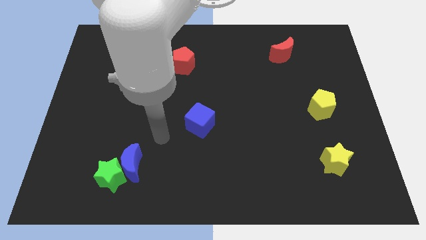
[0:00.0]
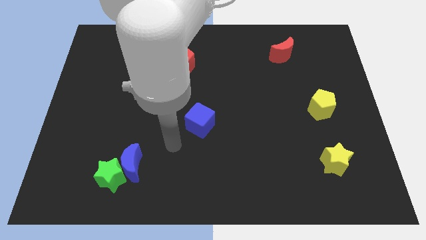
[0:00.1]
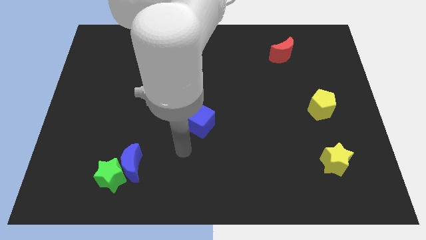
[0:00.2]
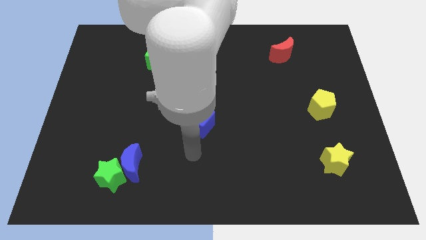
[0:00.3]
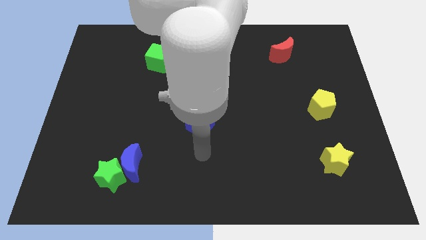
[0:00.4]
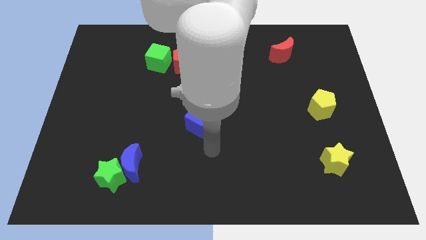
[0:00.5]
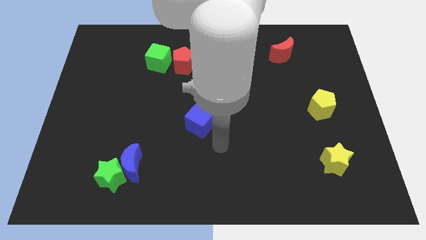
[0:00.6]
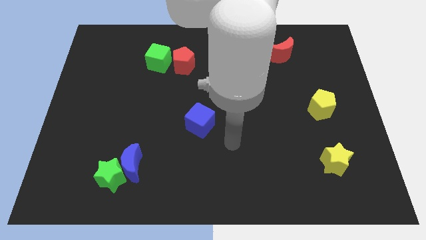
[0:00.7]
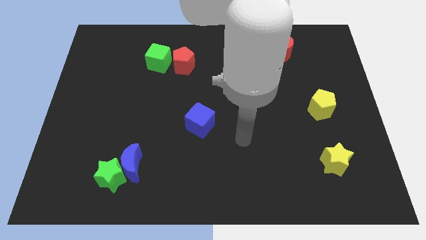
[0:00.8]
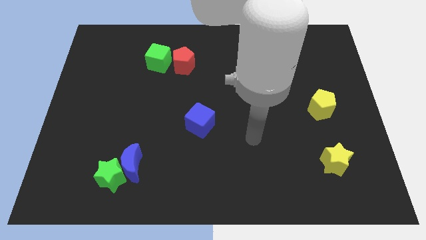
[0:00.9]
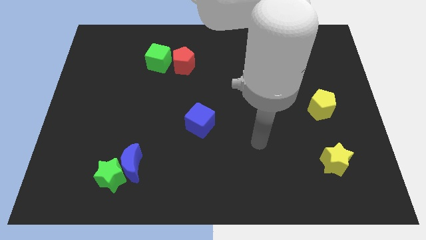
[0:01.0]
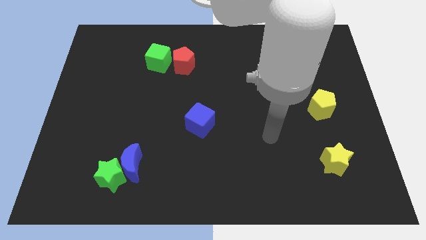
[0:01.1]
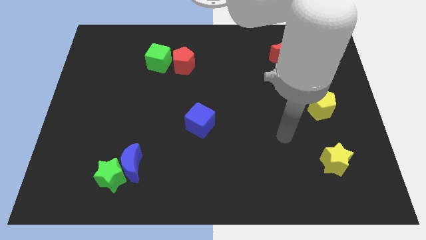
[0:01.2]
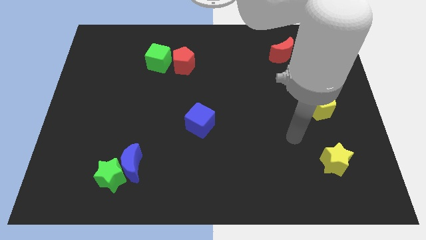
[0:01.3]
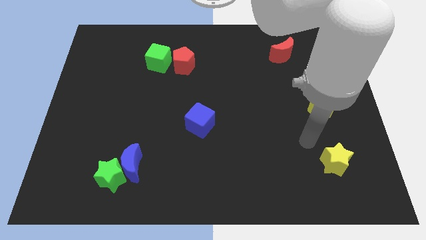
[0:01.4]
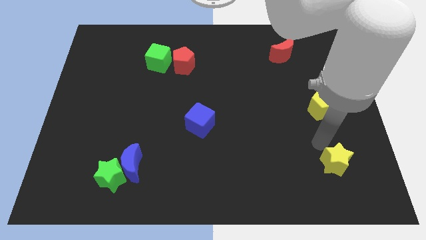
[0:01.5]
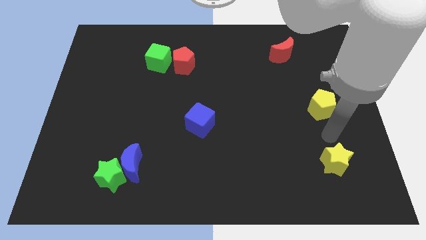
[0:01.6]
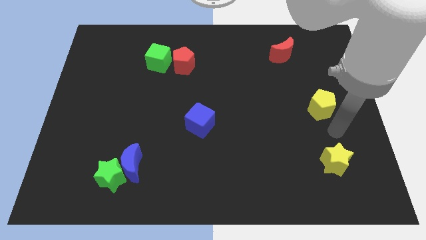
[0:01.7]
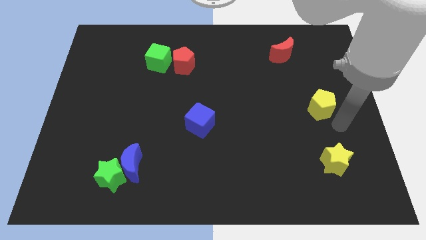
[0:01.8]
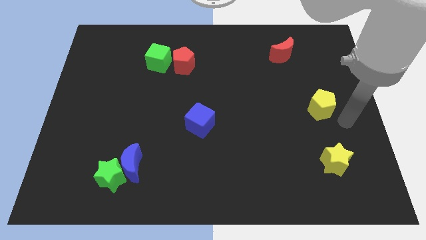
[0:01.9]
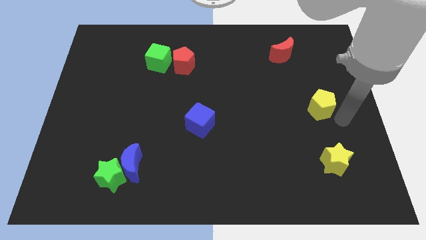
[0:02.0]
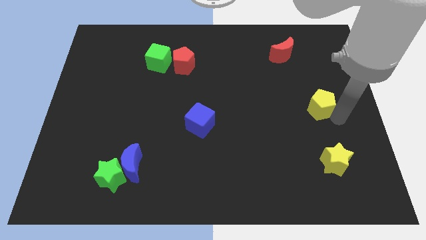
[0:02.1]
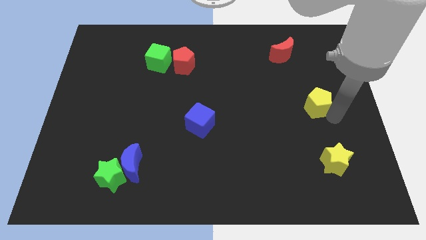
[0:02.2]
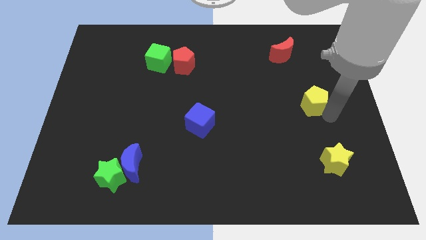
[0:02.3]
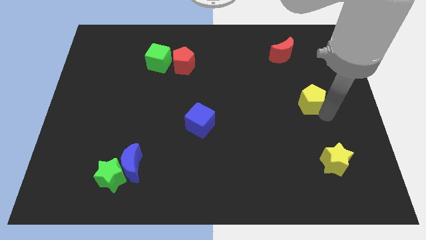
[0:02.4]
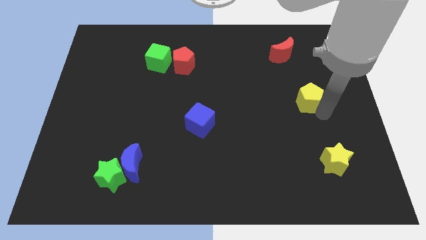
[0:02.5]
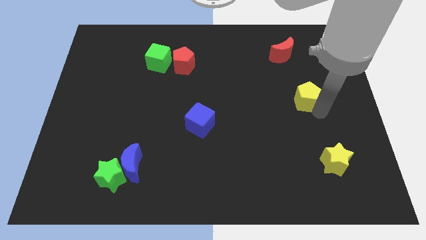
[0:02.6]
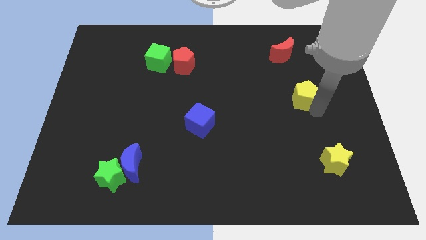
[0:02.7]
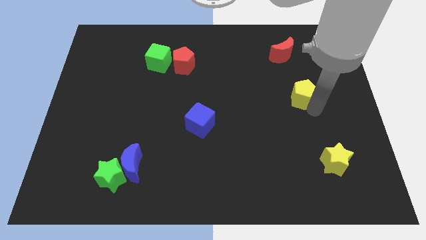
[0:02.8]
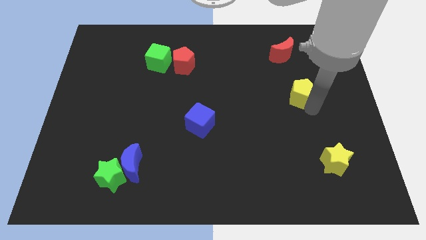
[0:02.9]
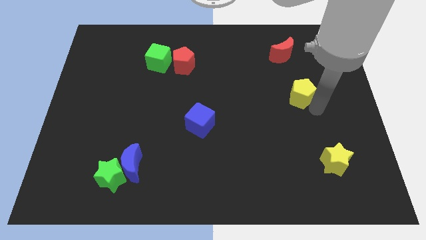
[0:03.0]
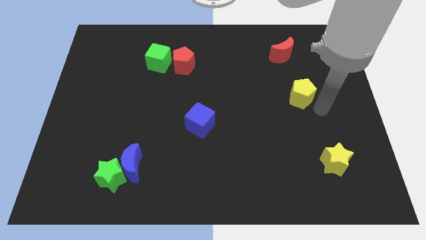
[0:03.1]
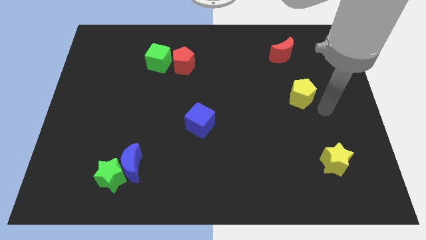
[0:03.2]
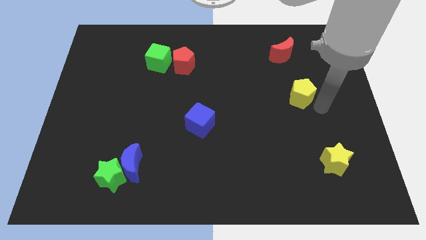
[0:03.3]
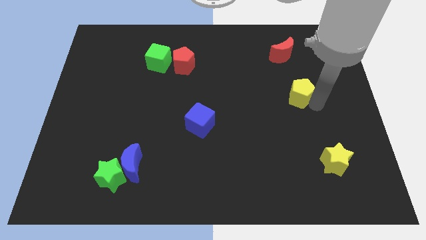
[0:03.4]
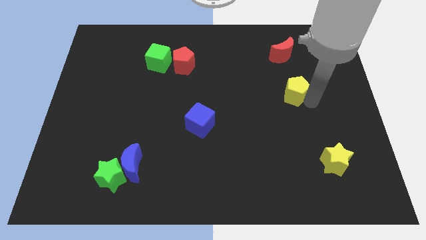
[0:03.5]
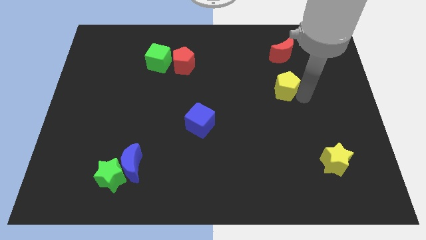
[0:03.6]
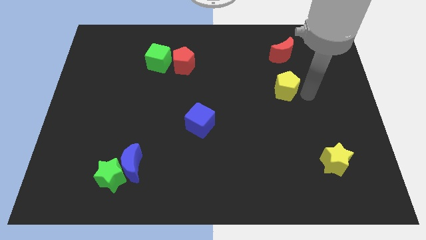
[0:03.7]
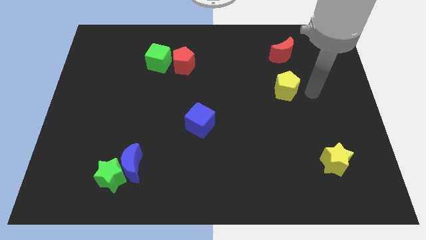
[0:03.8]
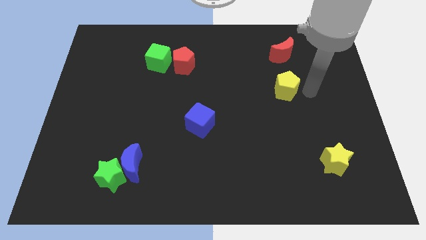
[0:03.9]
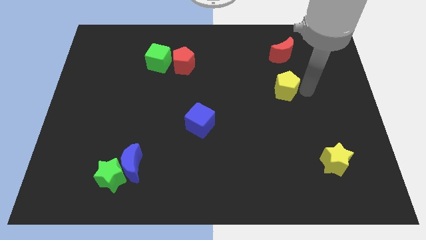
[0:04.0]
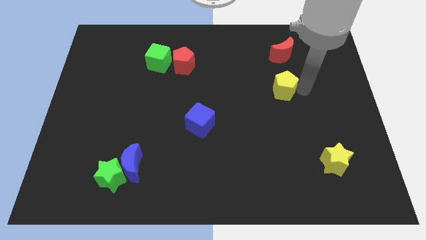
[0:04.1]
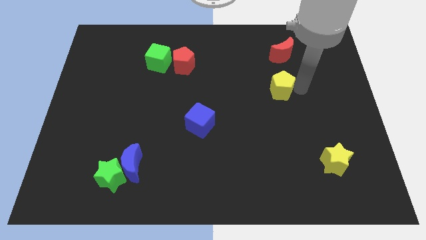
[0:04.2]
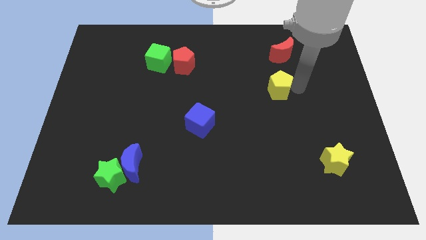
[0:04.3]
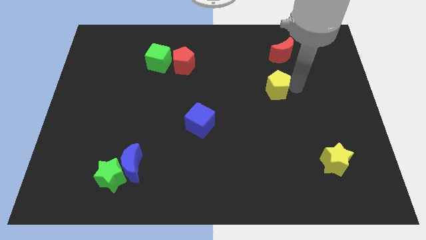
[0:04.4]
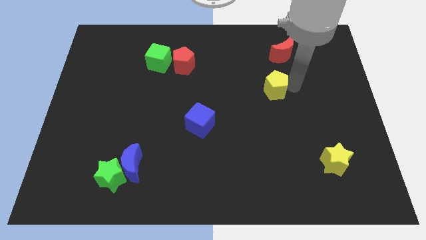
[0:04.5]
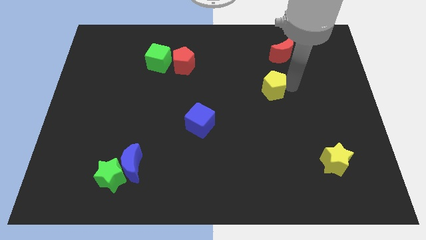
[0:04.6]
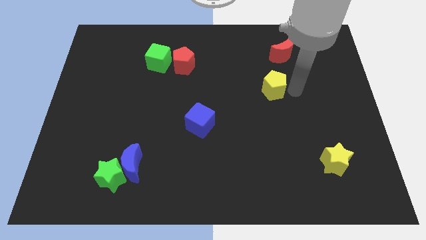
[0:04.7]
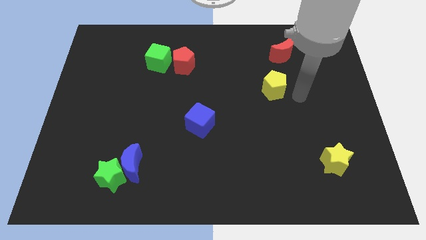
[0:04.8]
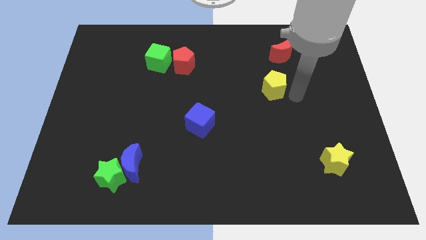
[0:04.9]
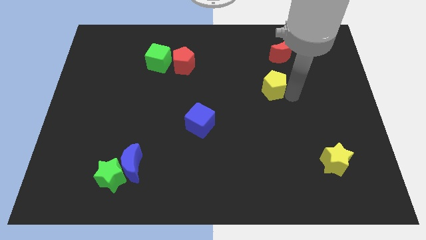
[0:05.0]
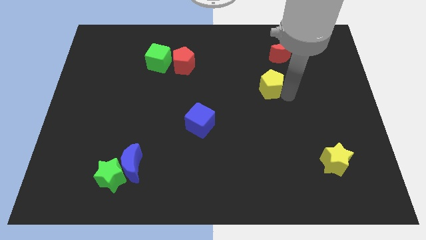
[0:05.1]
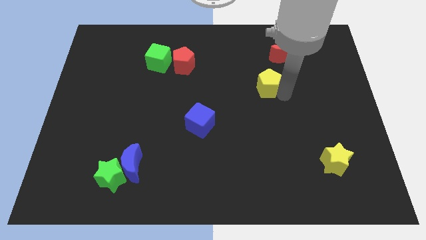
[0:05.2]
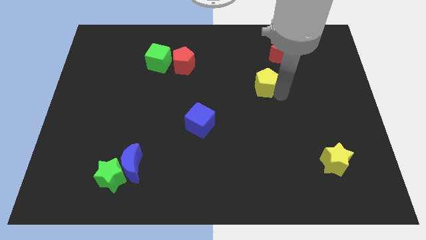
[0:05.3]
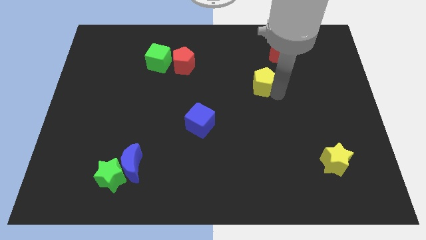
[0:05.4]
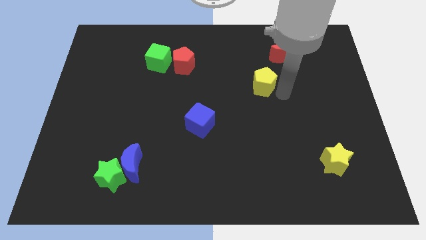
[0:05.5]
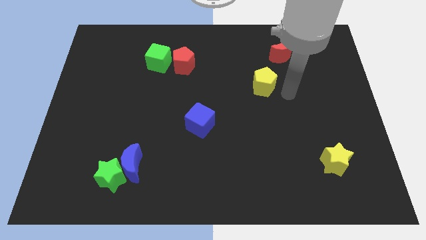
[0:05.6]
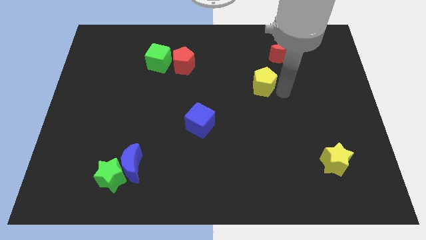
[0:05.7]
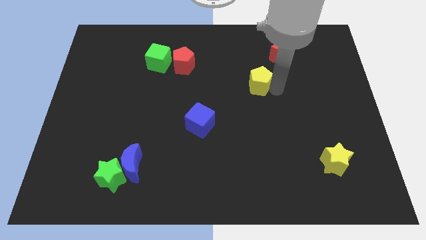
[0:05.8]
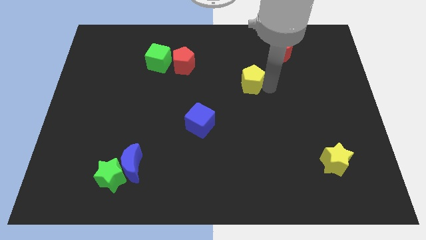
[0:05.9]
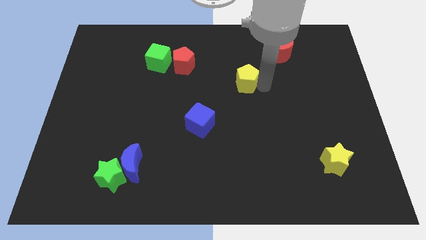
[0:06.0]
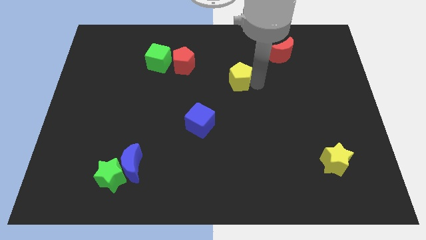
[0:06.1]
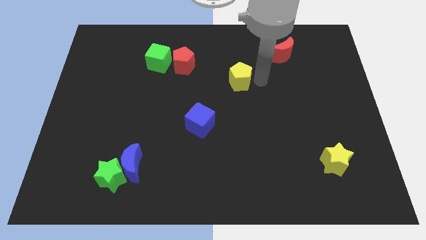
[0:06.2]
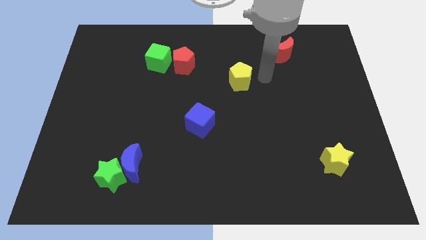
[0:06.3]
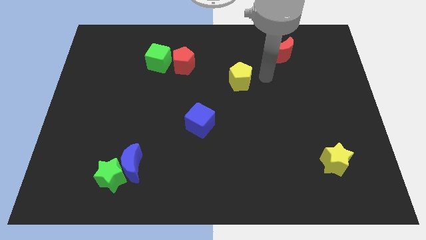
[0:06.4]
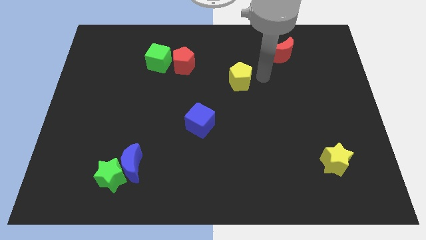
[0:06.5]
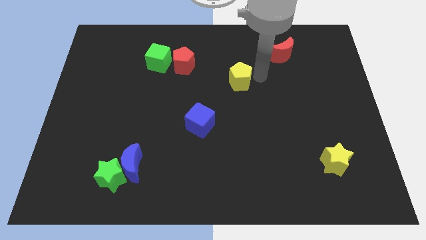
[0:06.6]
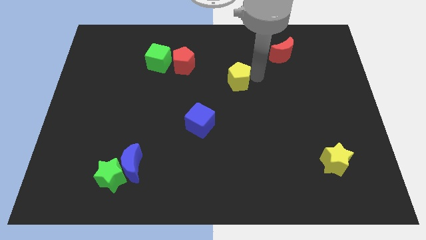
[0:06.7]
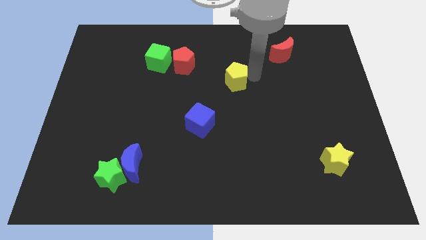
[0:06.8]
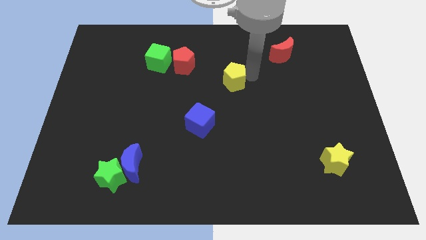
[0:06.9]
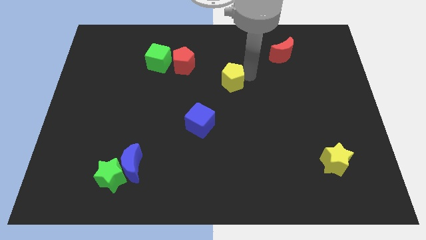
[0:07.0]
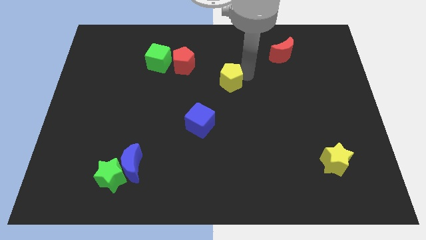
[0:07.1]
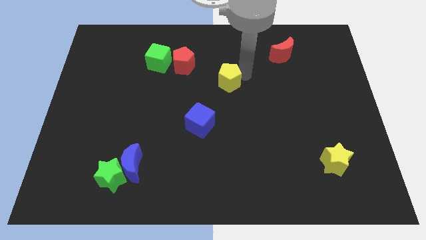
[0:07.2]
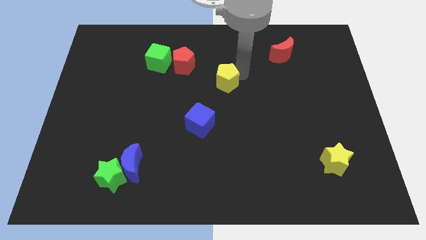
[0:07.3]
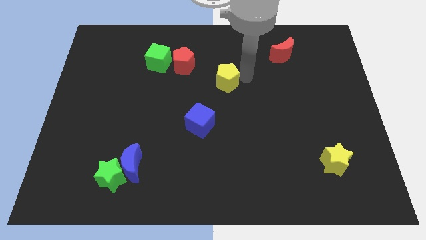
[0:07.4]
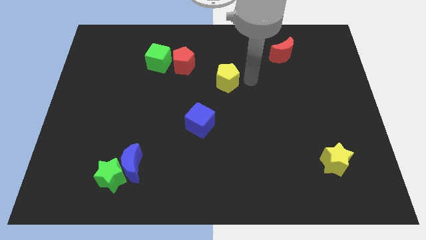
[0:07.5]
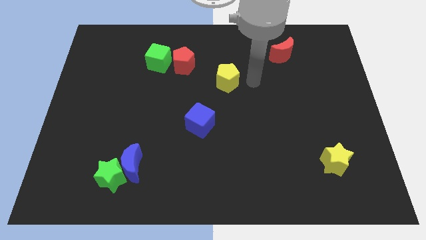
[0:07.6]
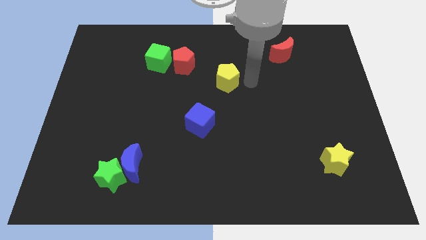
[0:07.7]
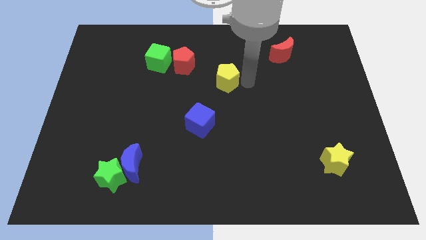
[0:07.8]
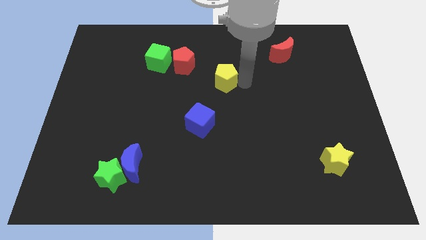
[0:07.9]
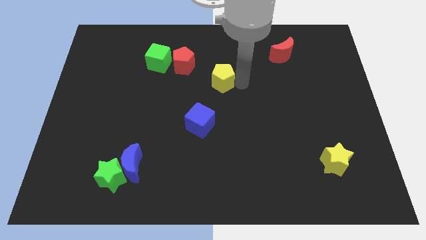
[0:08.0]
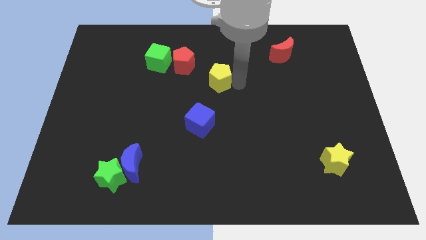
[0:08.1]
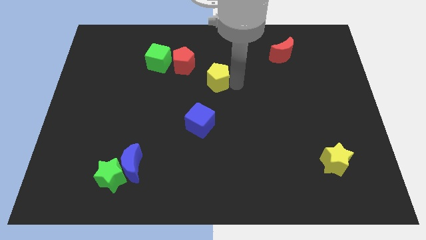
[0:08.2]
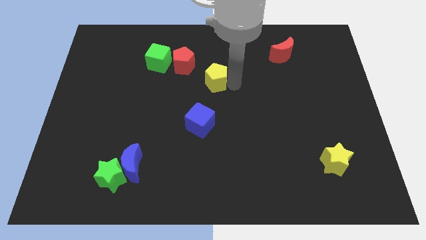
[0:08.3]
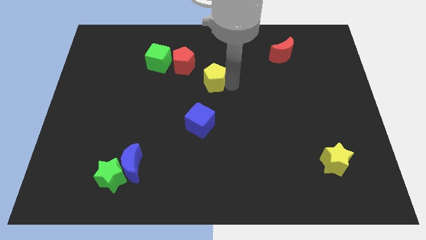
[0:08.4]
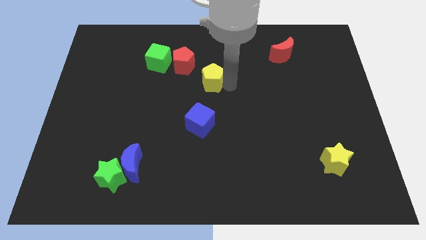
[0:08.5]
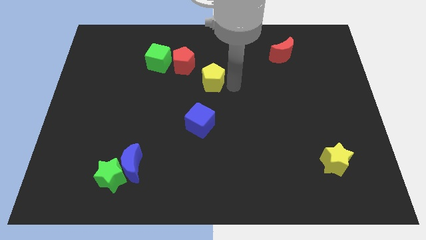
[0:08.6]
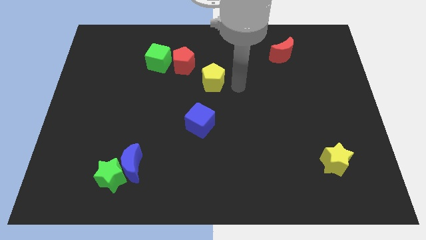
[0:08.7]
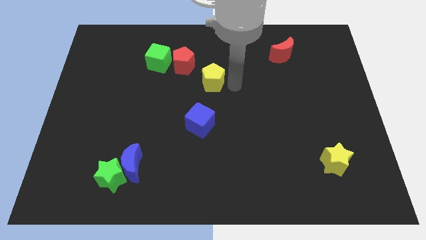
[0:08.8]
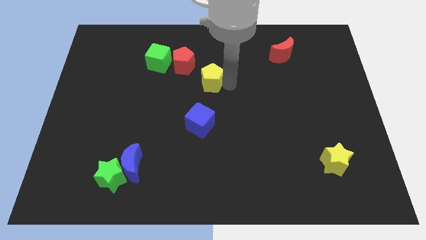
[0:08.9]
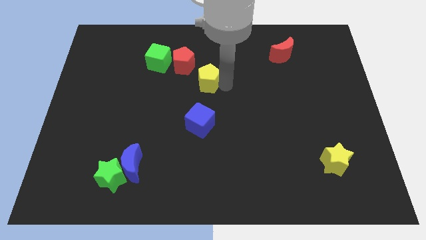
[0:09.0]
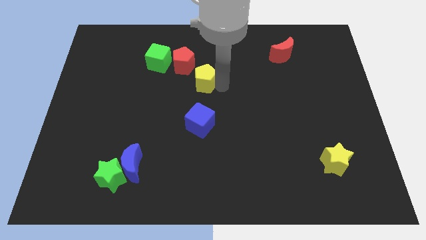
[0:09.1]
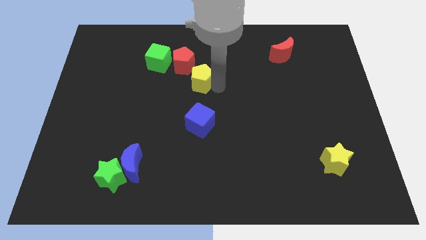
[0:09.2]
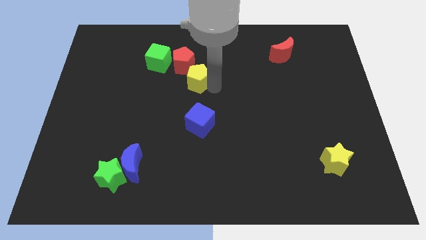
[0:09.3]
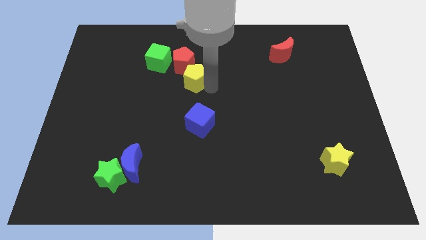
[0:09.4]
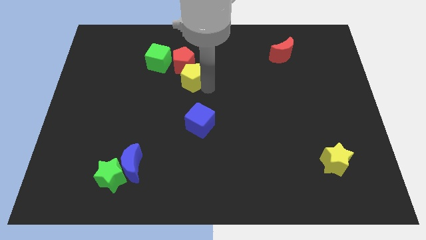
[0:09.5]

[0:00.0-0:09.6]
put the yellow pentagon next to the red pentagon
